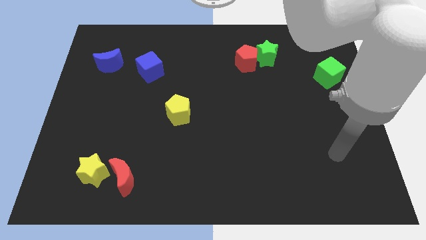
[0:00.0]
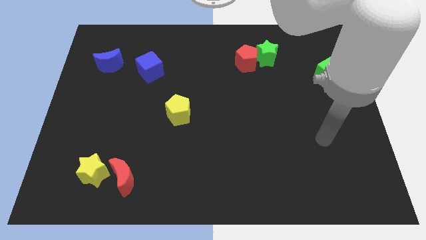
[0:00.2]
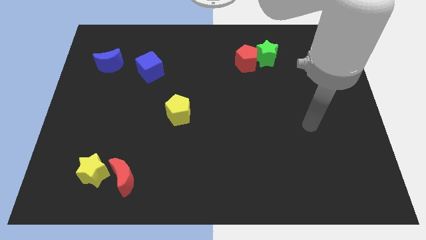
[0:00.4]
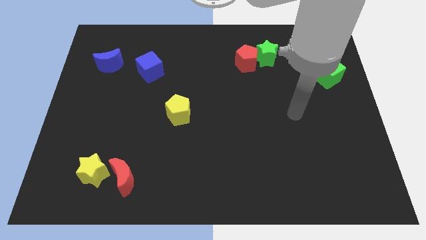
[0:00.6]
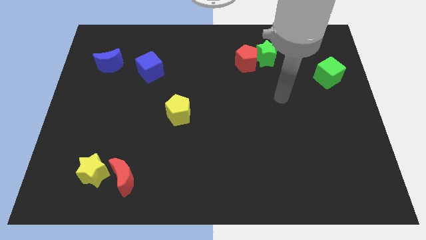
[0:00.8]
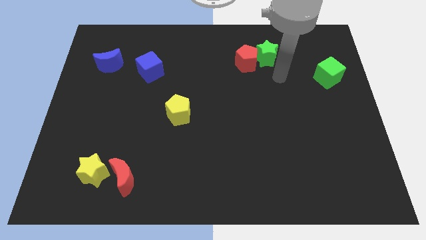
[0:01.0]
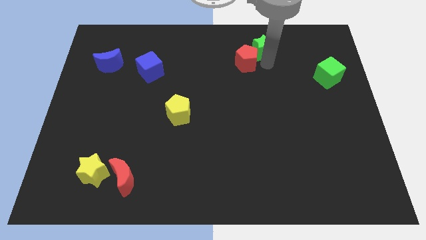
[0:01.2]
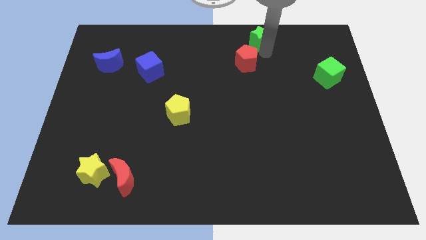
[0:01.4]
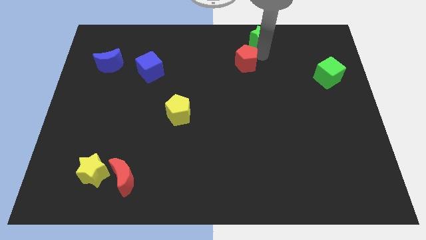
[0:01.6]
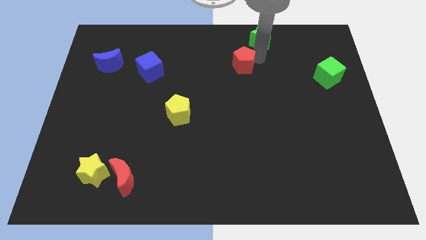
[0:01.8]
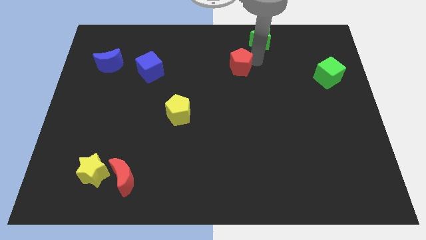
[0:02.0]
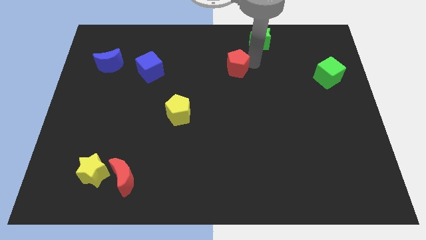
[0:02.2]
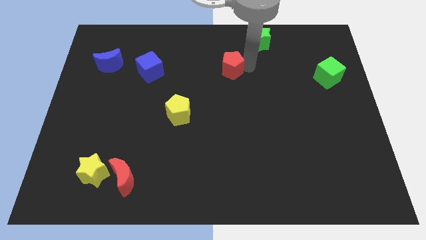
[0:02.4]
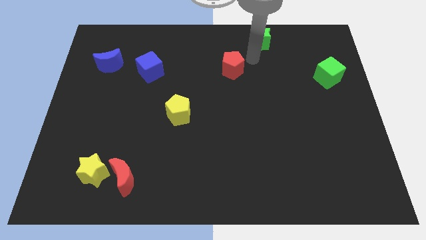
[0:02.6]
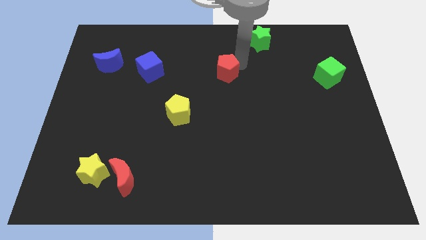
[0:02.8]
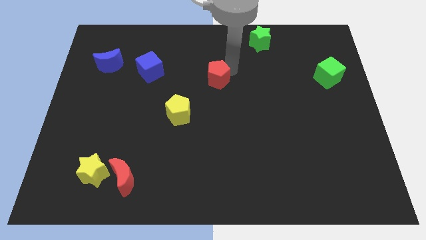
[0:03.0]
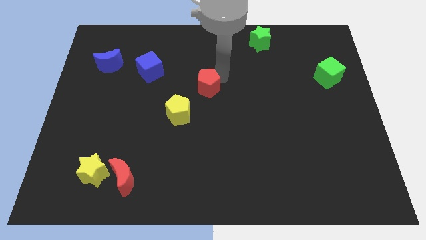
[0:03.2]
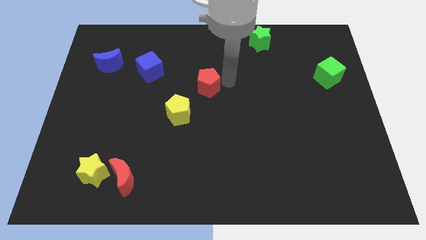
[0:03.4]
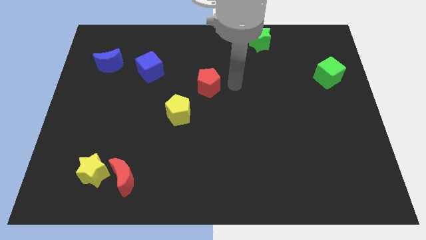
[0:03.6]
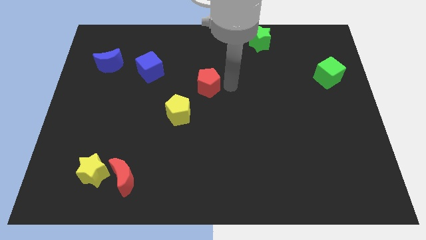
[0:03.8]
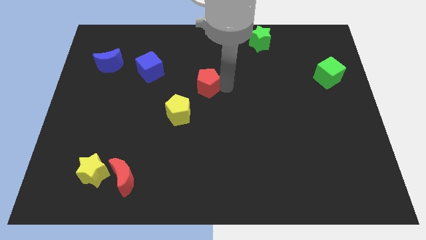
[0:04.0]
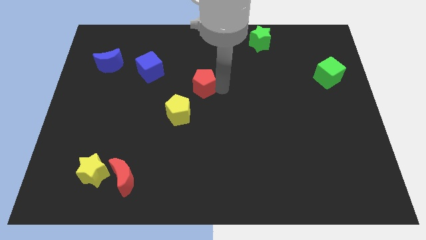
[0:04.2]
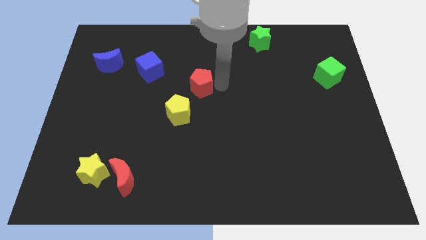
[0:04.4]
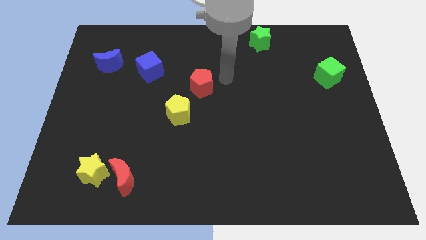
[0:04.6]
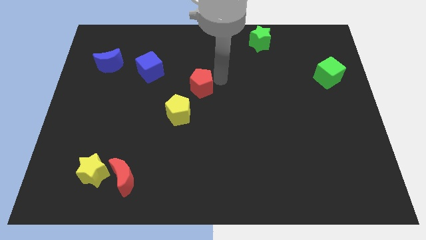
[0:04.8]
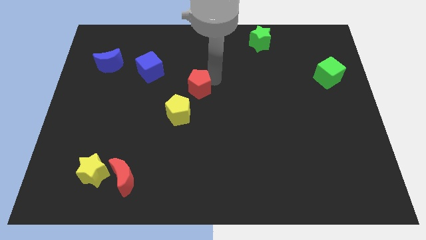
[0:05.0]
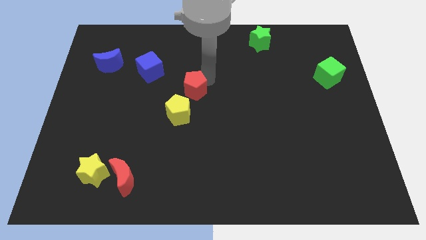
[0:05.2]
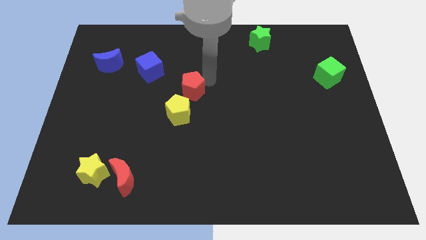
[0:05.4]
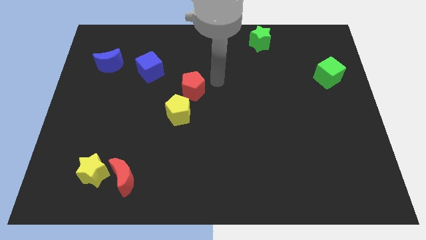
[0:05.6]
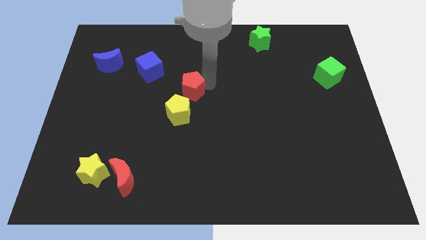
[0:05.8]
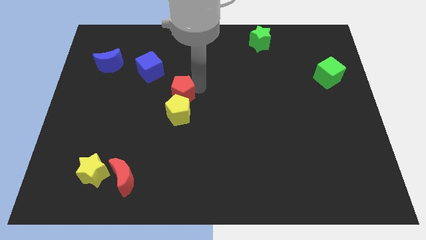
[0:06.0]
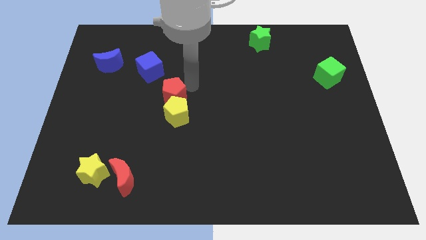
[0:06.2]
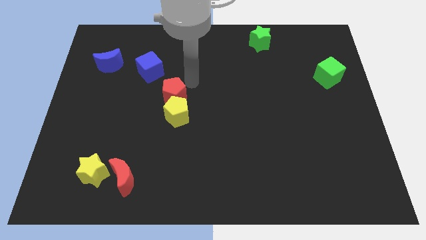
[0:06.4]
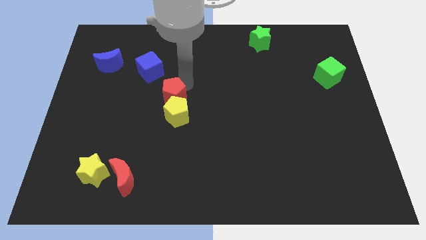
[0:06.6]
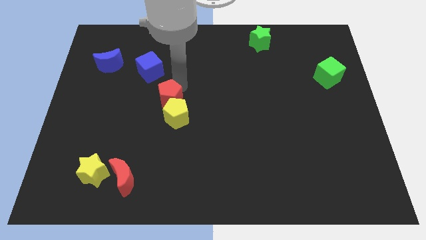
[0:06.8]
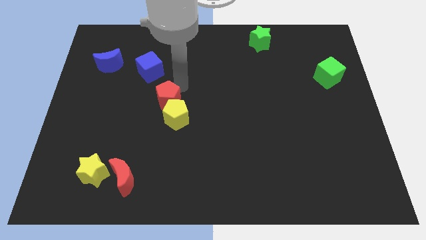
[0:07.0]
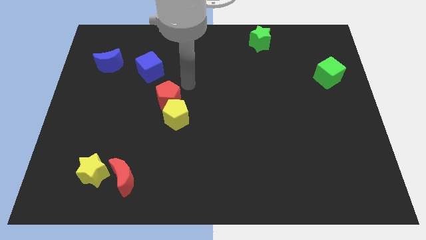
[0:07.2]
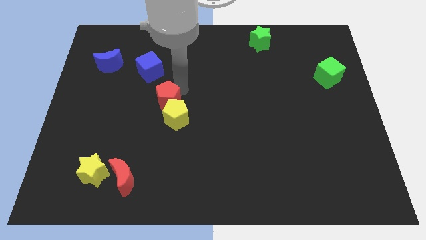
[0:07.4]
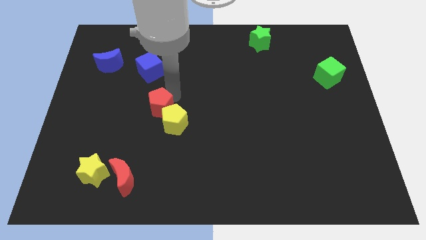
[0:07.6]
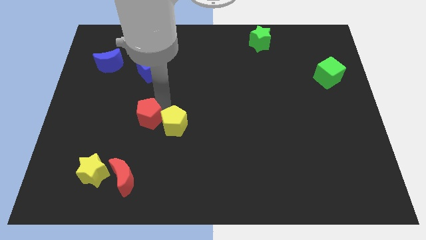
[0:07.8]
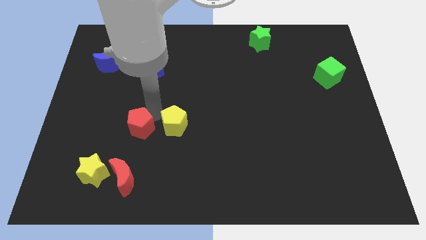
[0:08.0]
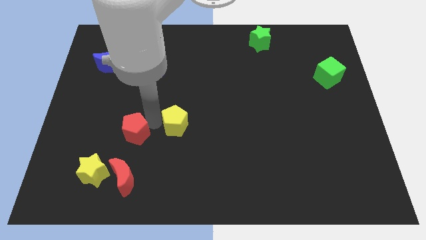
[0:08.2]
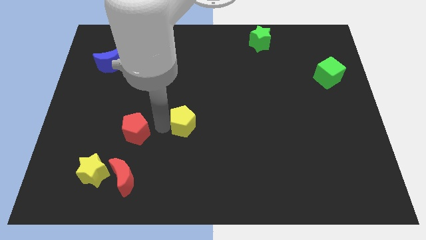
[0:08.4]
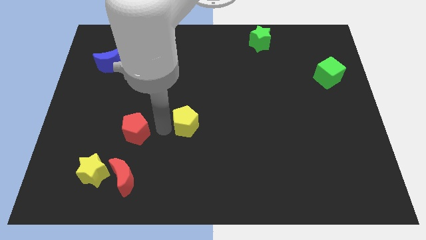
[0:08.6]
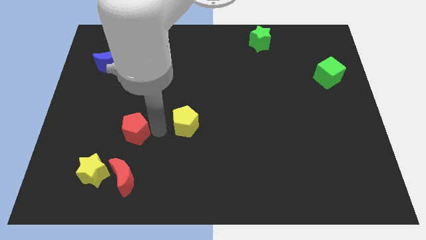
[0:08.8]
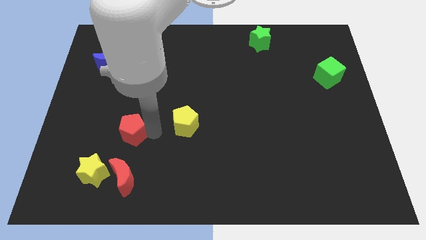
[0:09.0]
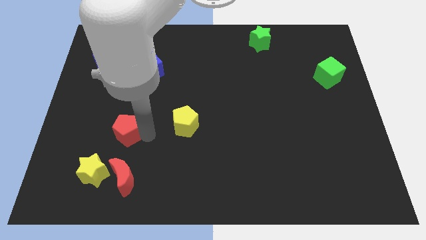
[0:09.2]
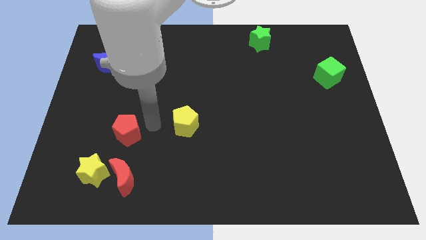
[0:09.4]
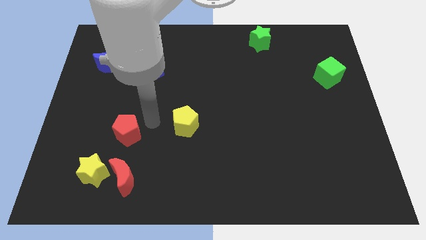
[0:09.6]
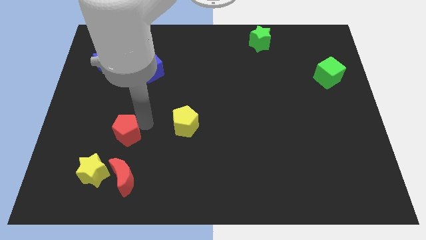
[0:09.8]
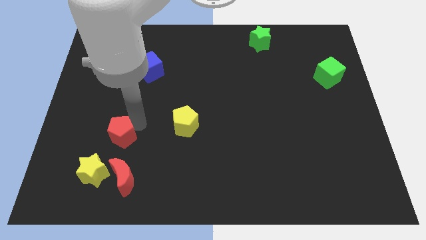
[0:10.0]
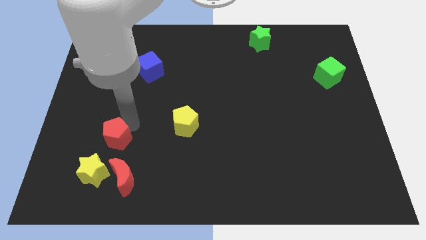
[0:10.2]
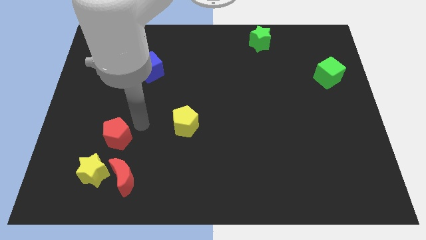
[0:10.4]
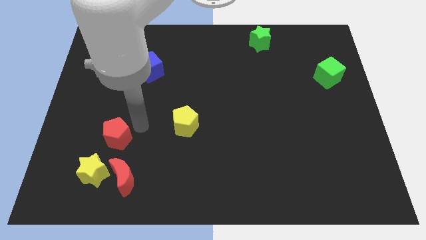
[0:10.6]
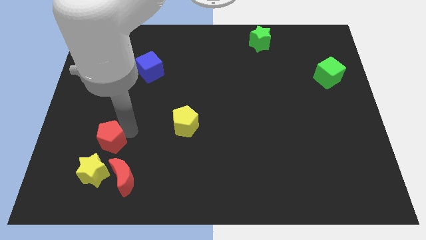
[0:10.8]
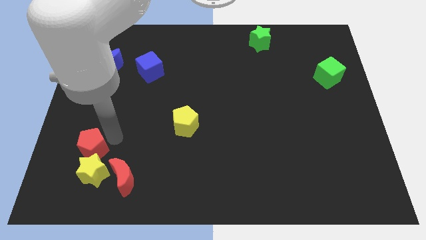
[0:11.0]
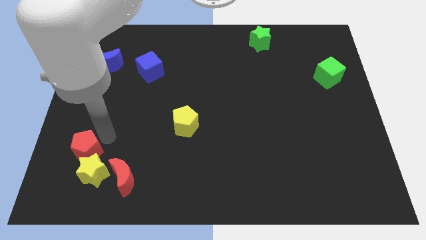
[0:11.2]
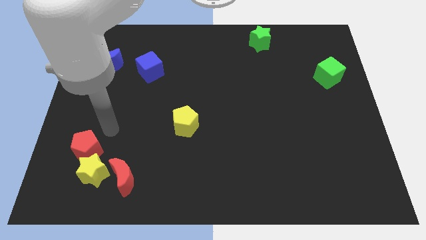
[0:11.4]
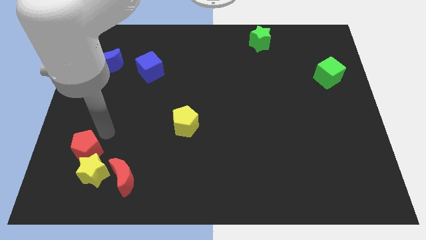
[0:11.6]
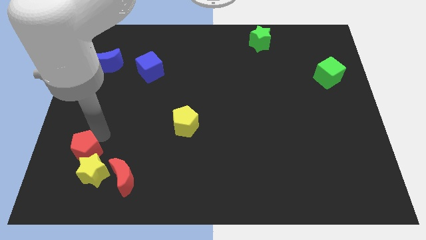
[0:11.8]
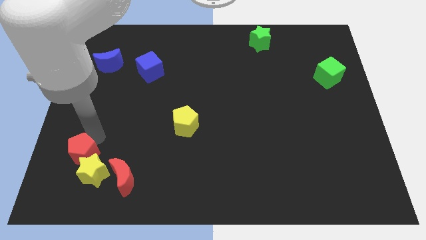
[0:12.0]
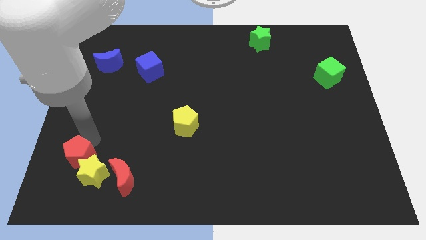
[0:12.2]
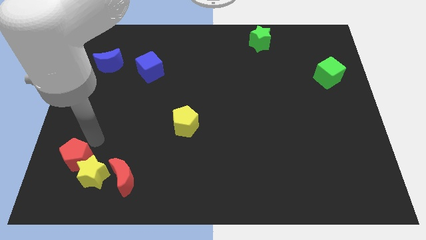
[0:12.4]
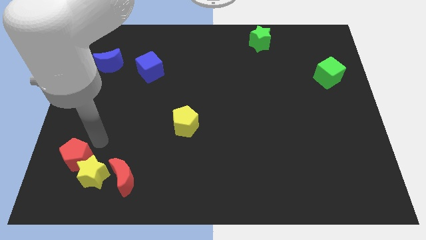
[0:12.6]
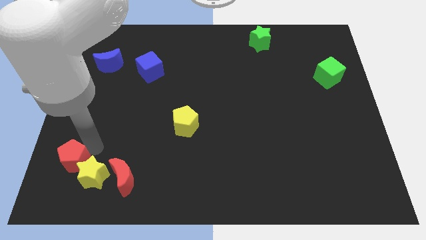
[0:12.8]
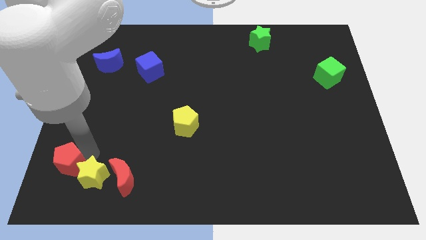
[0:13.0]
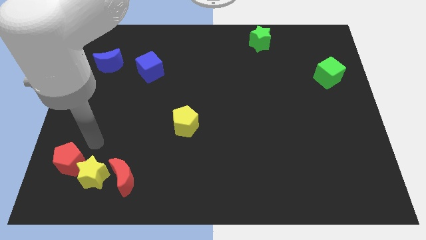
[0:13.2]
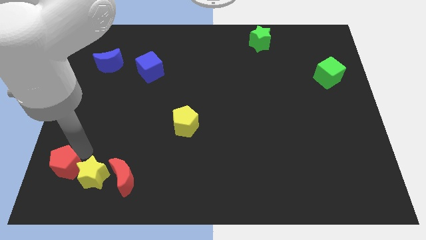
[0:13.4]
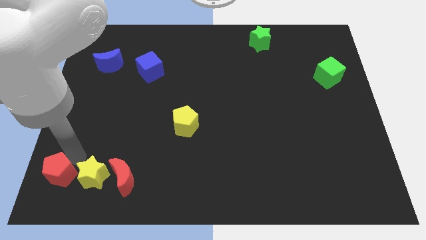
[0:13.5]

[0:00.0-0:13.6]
slide the red pentagon to the bottom left corner
